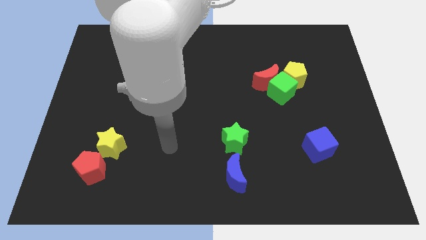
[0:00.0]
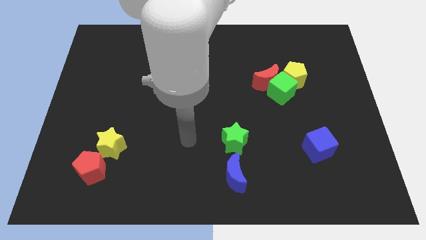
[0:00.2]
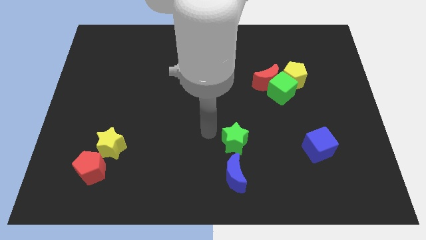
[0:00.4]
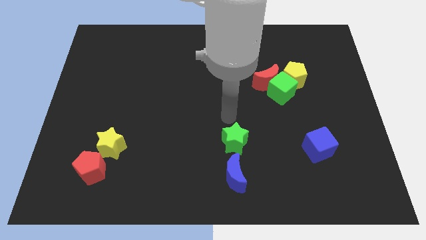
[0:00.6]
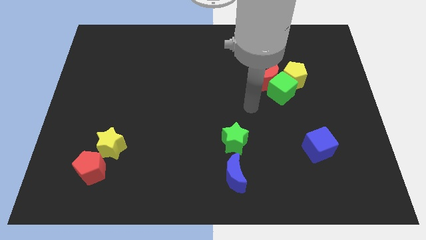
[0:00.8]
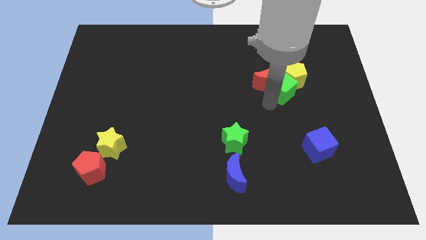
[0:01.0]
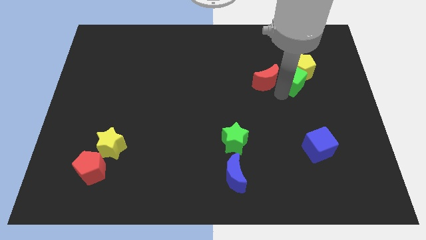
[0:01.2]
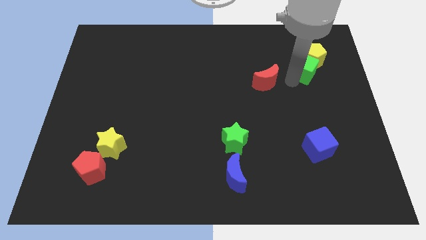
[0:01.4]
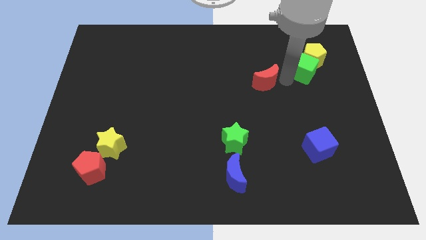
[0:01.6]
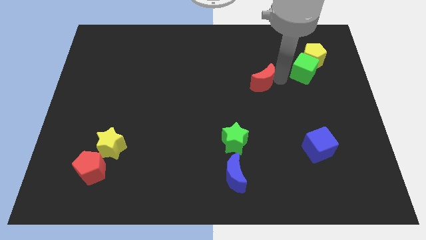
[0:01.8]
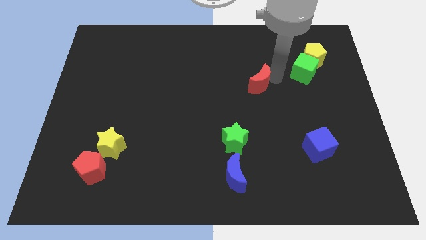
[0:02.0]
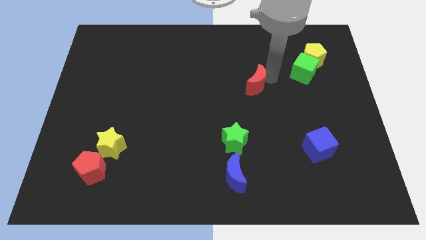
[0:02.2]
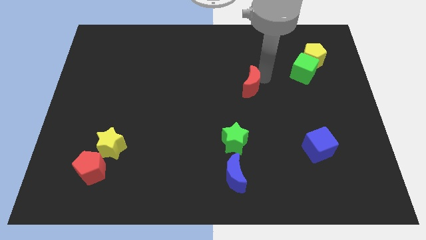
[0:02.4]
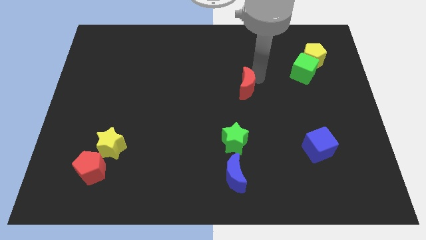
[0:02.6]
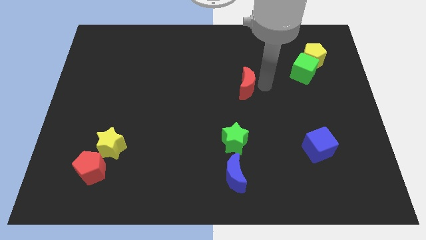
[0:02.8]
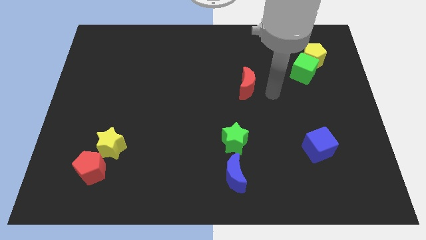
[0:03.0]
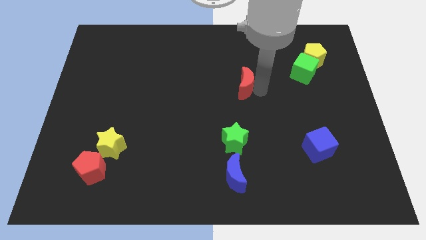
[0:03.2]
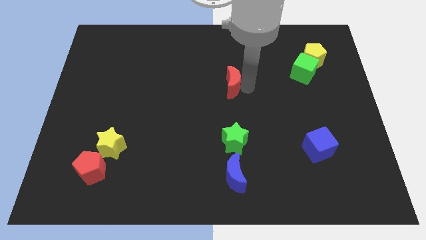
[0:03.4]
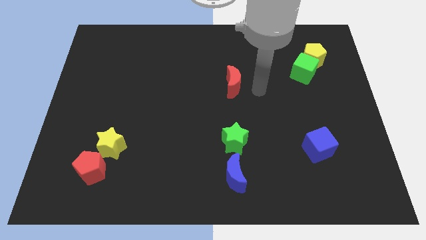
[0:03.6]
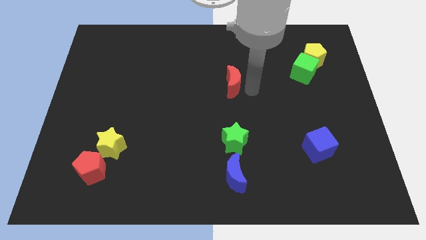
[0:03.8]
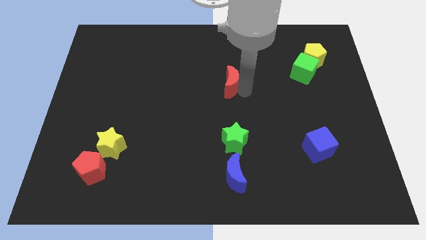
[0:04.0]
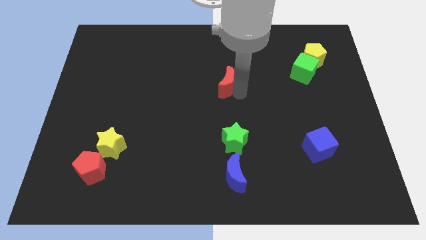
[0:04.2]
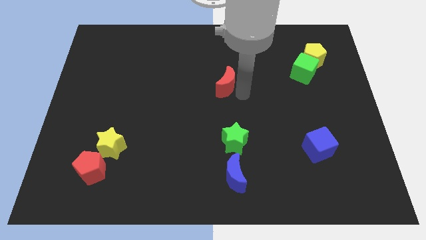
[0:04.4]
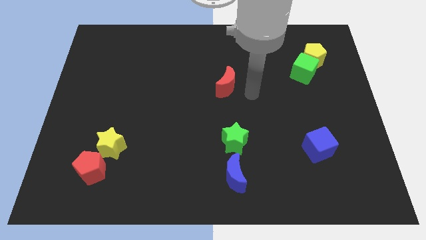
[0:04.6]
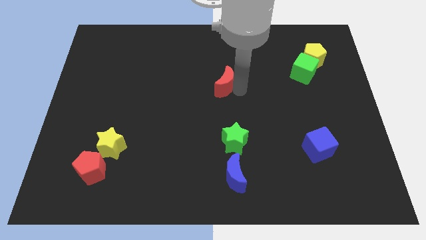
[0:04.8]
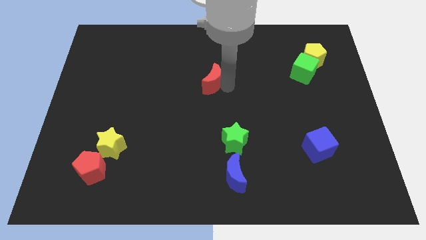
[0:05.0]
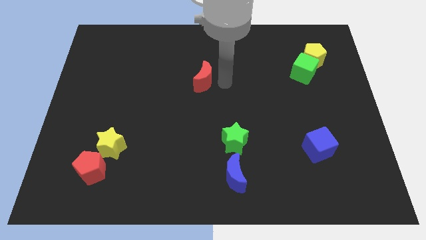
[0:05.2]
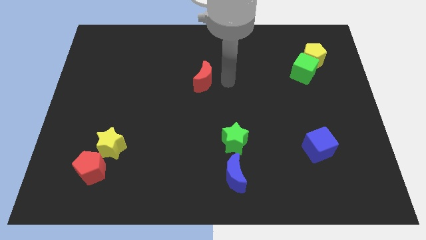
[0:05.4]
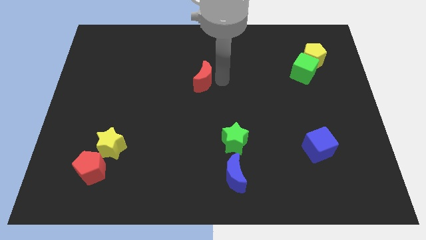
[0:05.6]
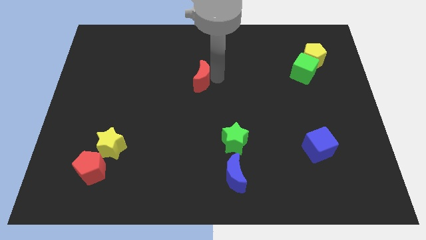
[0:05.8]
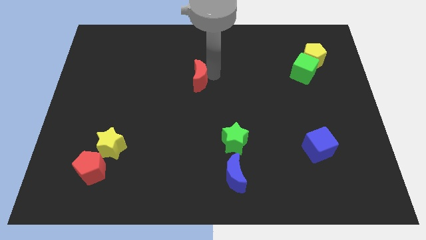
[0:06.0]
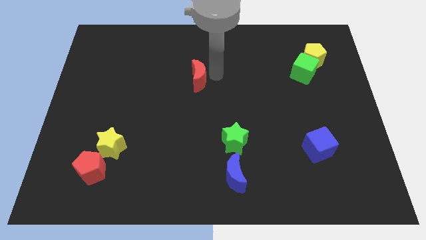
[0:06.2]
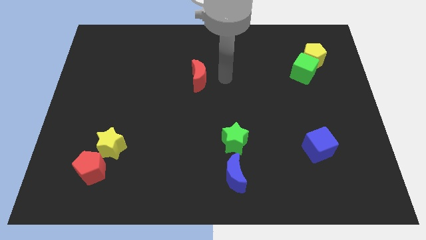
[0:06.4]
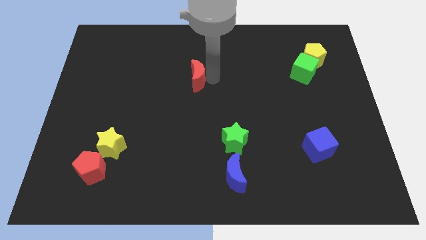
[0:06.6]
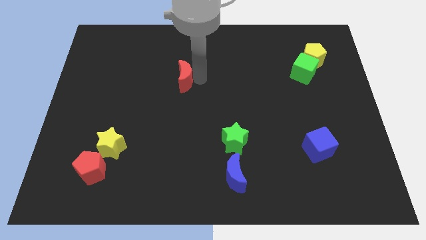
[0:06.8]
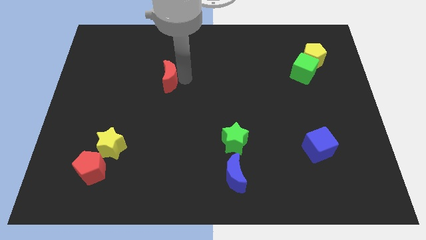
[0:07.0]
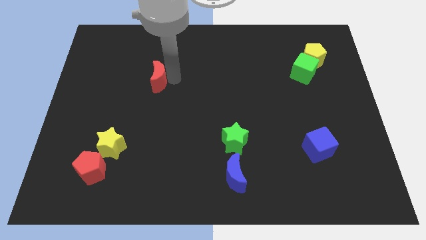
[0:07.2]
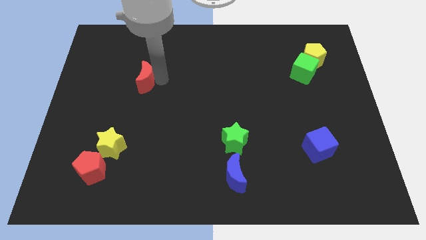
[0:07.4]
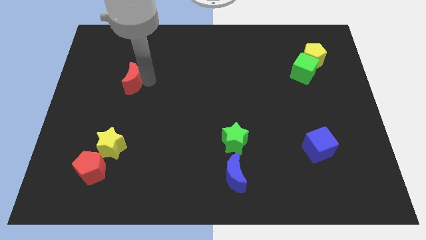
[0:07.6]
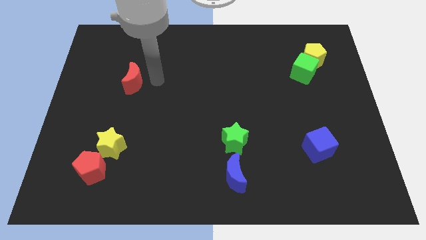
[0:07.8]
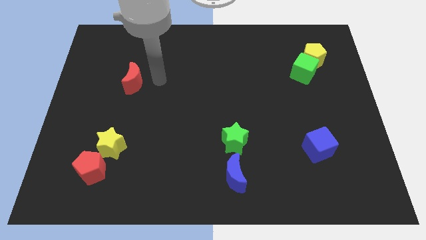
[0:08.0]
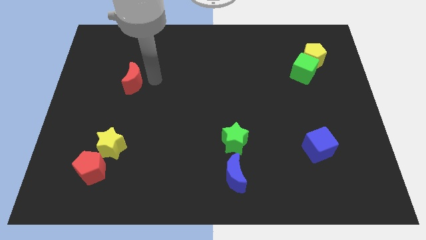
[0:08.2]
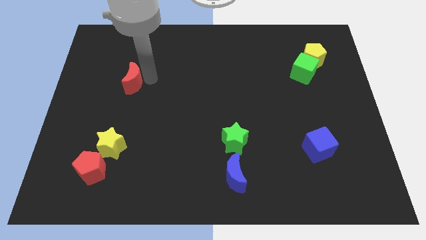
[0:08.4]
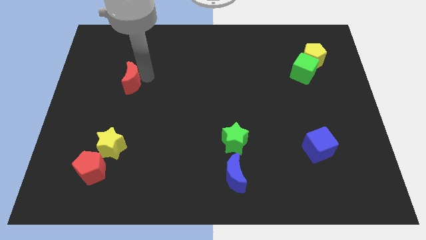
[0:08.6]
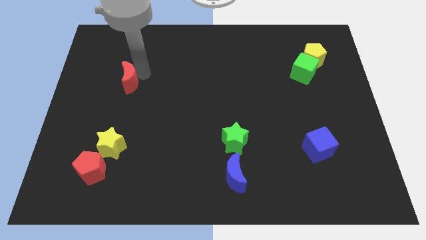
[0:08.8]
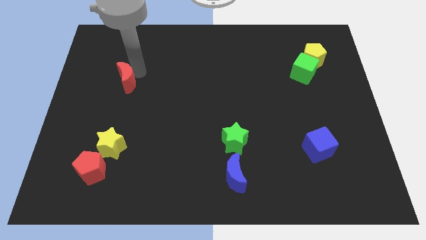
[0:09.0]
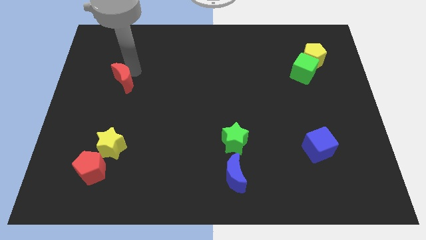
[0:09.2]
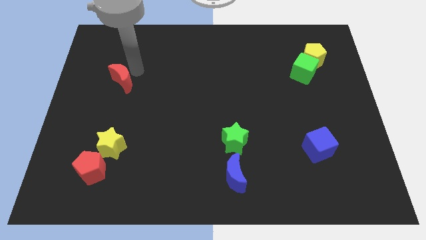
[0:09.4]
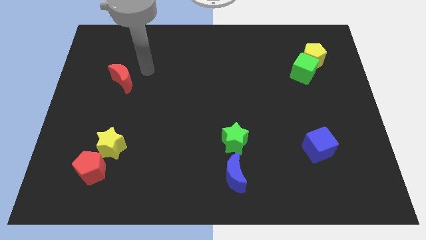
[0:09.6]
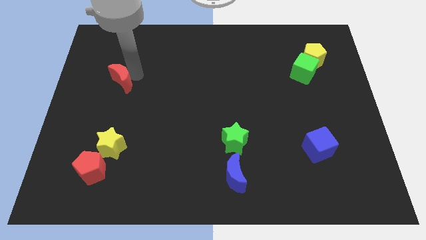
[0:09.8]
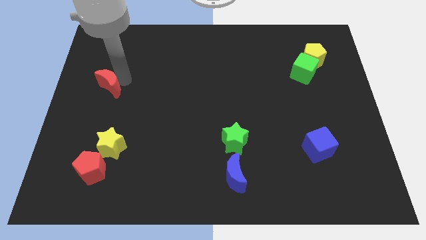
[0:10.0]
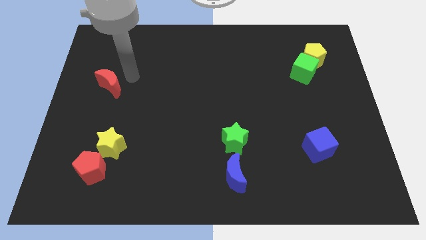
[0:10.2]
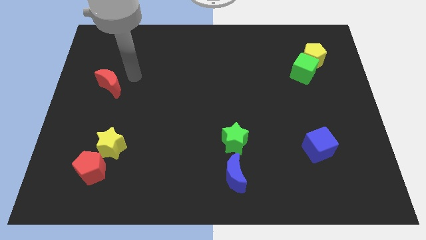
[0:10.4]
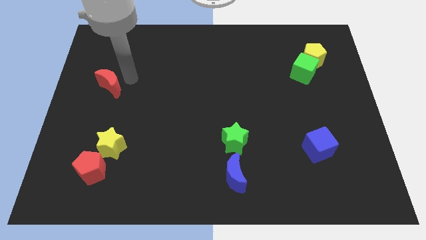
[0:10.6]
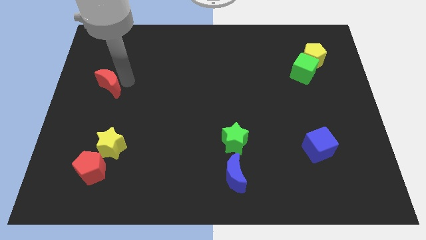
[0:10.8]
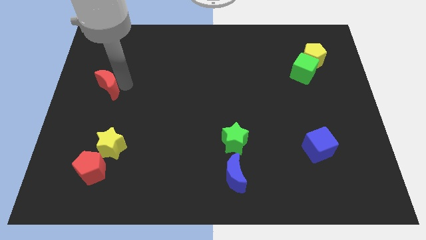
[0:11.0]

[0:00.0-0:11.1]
put the red moon to the center left
